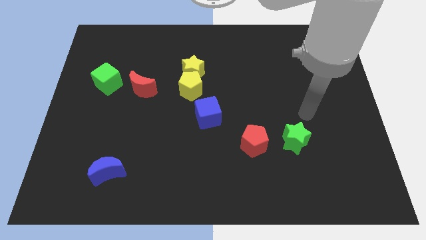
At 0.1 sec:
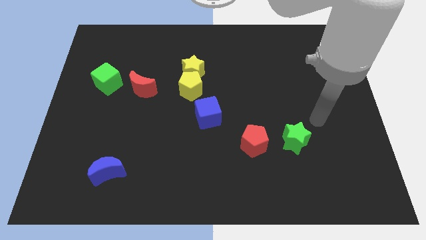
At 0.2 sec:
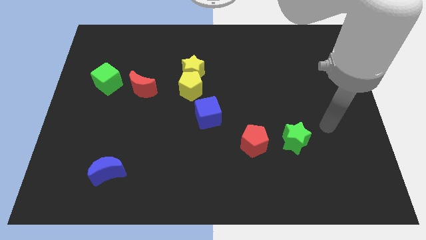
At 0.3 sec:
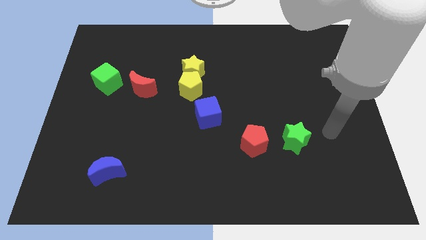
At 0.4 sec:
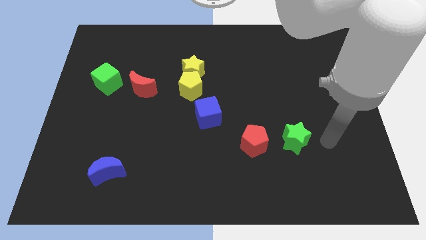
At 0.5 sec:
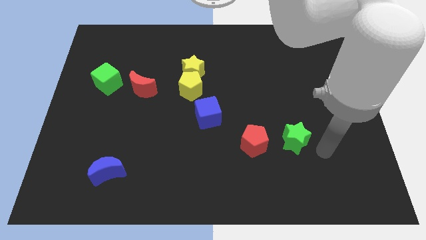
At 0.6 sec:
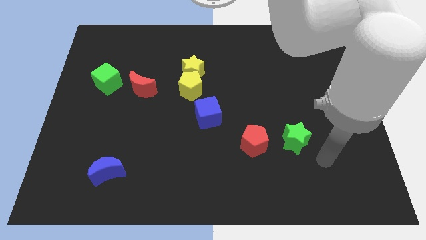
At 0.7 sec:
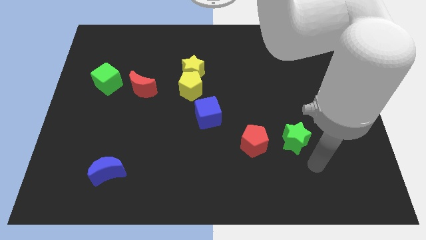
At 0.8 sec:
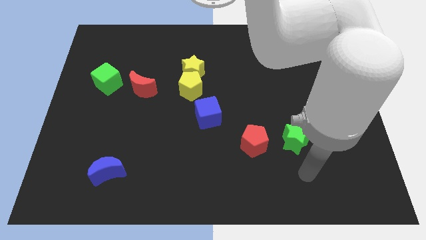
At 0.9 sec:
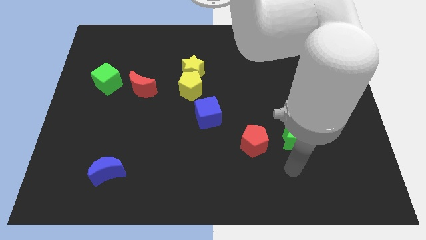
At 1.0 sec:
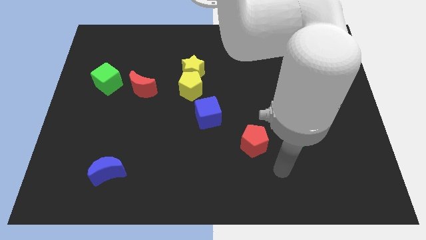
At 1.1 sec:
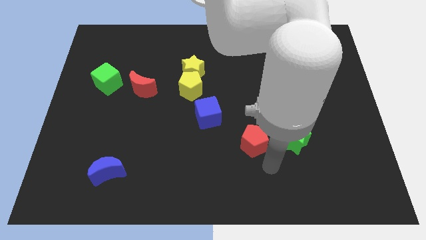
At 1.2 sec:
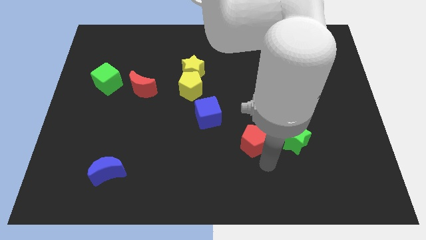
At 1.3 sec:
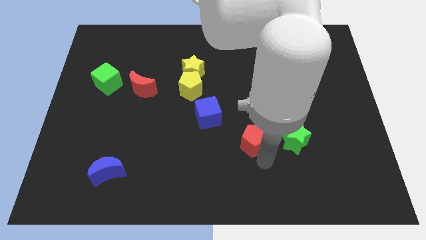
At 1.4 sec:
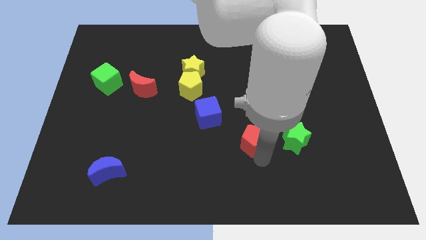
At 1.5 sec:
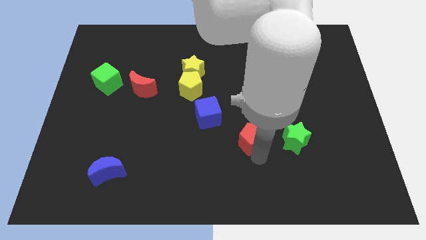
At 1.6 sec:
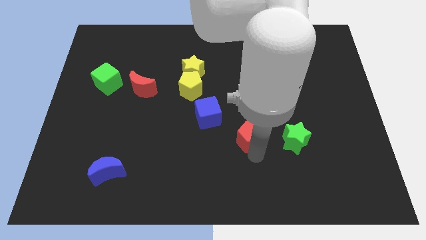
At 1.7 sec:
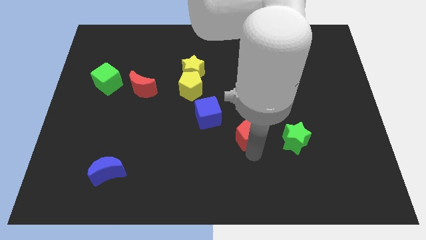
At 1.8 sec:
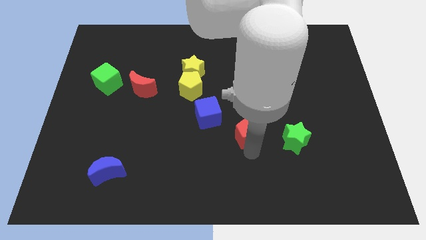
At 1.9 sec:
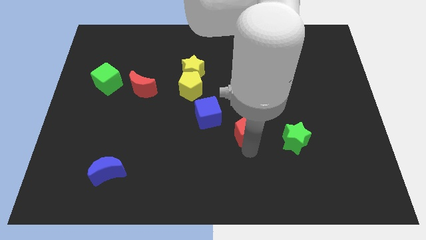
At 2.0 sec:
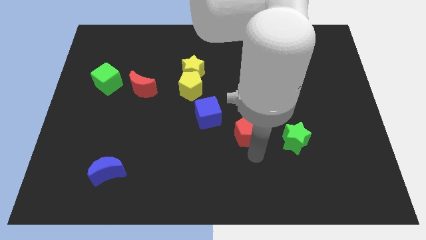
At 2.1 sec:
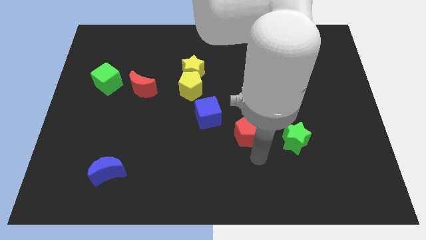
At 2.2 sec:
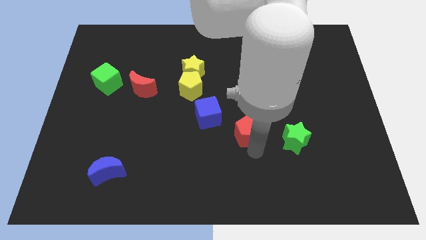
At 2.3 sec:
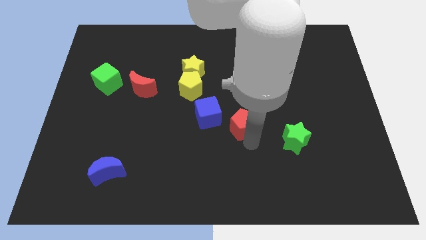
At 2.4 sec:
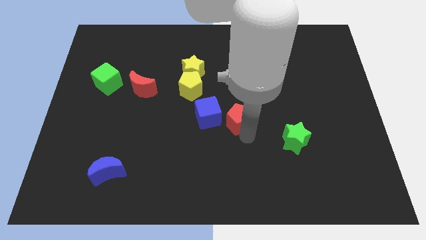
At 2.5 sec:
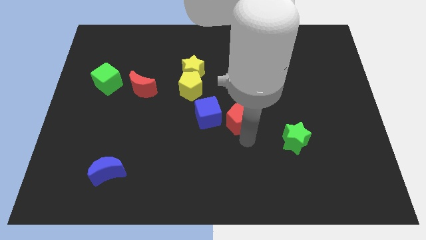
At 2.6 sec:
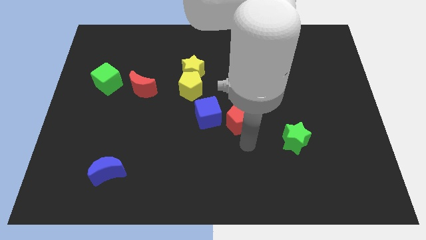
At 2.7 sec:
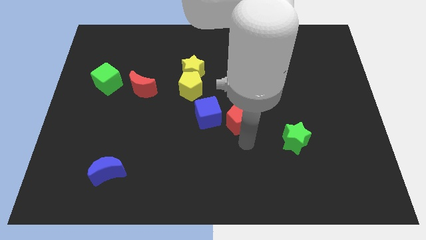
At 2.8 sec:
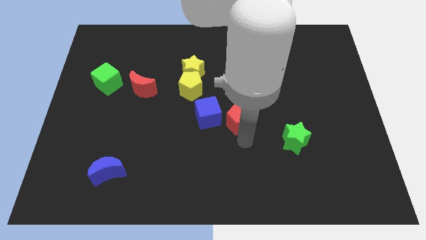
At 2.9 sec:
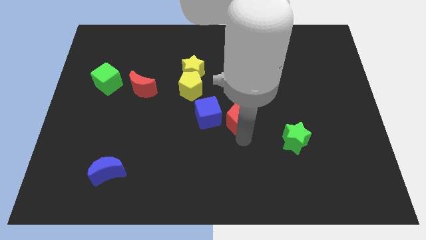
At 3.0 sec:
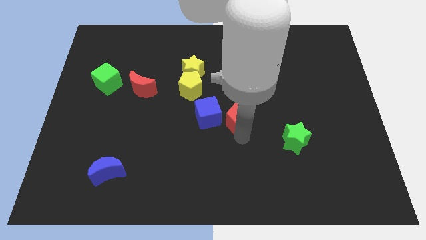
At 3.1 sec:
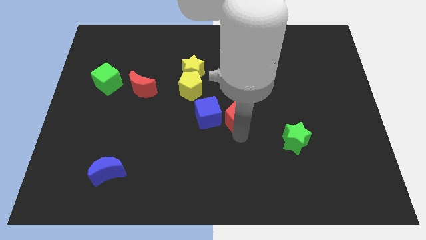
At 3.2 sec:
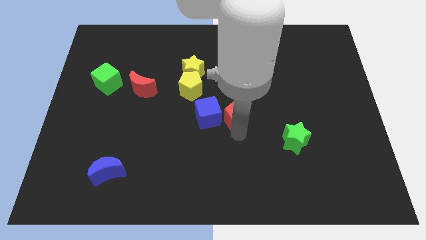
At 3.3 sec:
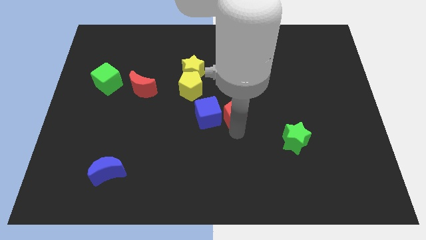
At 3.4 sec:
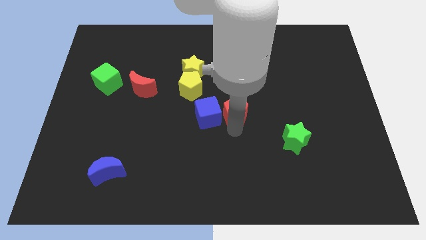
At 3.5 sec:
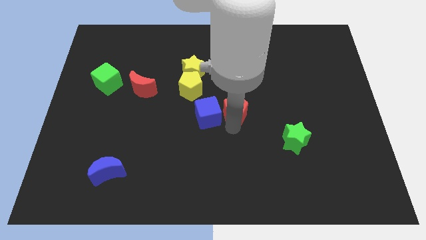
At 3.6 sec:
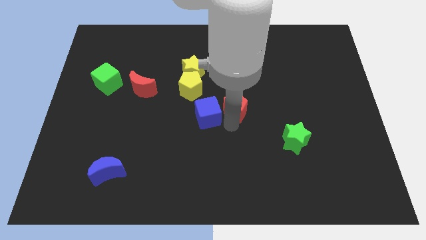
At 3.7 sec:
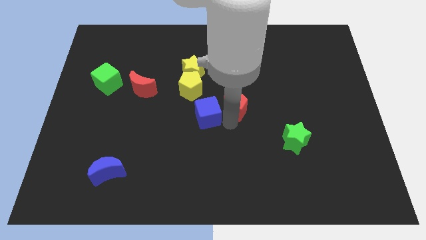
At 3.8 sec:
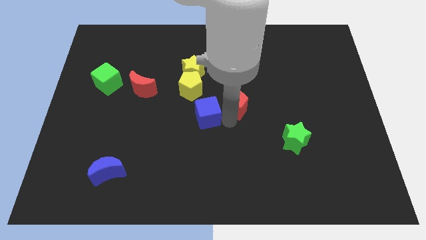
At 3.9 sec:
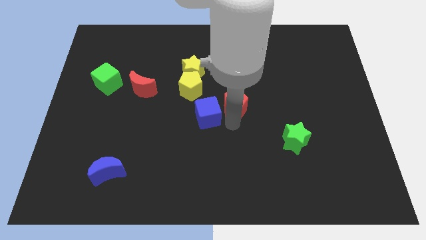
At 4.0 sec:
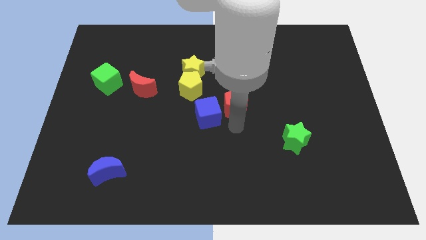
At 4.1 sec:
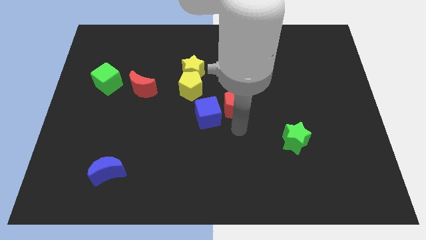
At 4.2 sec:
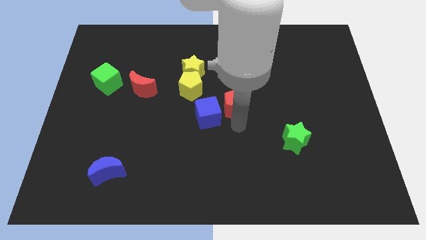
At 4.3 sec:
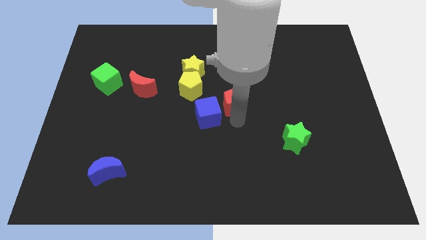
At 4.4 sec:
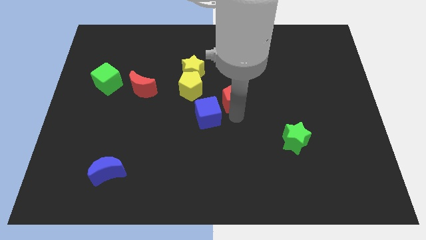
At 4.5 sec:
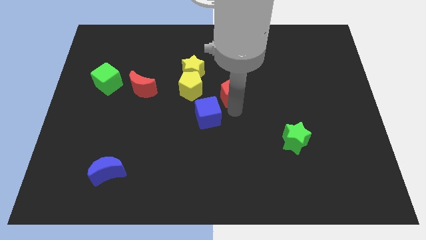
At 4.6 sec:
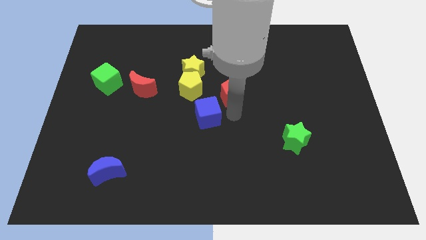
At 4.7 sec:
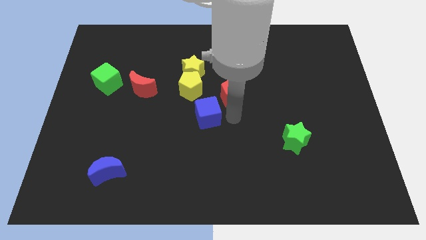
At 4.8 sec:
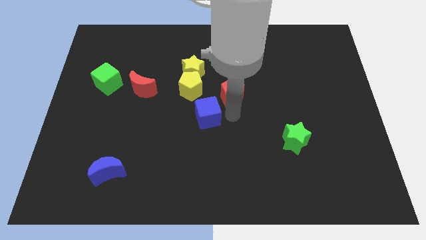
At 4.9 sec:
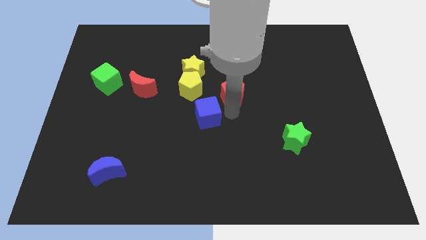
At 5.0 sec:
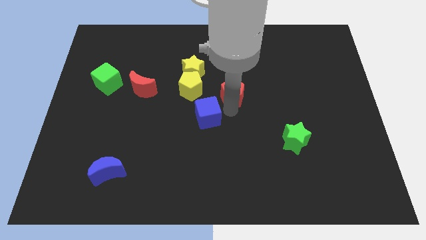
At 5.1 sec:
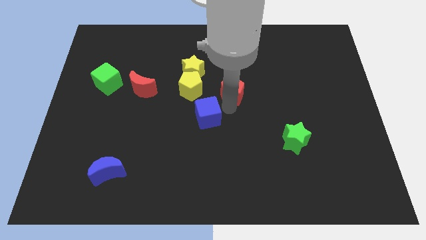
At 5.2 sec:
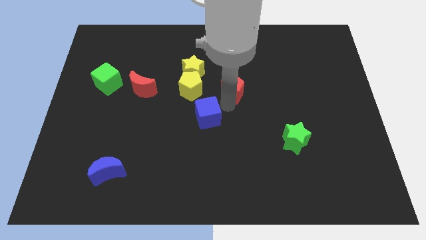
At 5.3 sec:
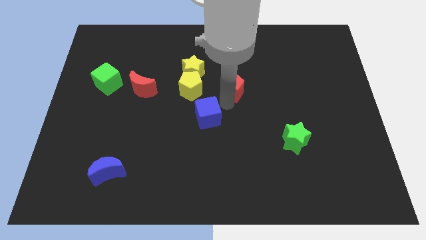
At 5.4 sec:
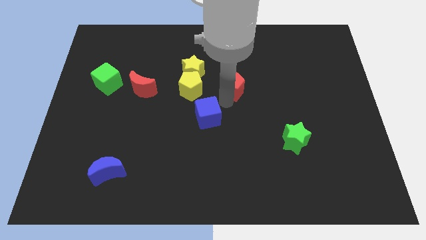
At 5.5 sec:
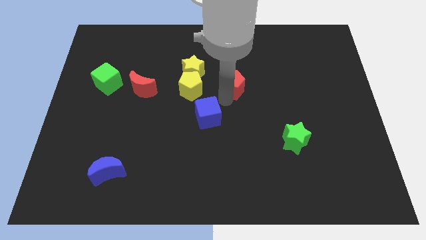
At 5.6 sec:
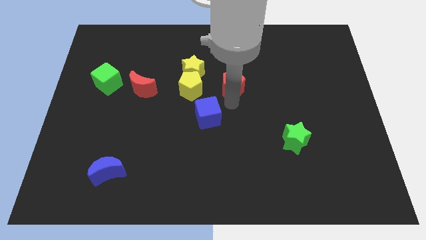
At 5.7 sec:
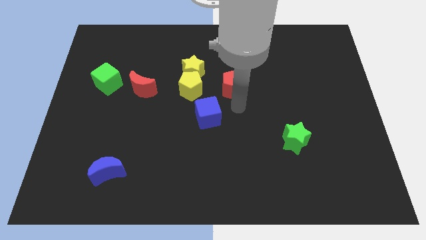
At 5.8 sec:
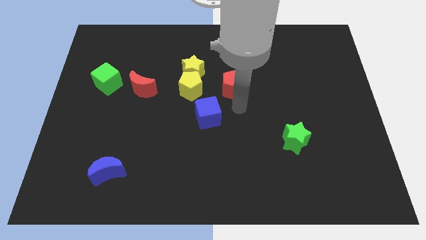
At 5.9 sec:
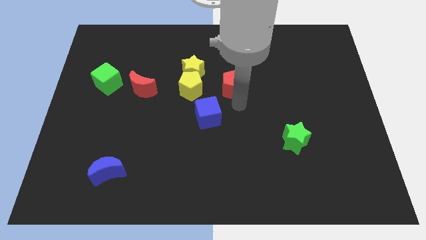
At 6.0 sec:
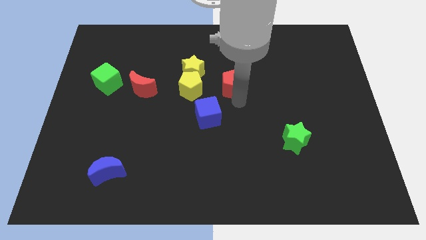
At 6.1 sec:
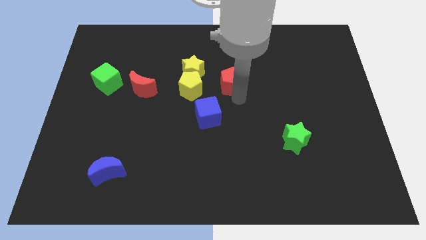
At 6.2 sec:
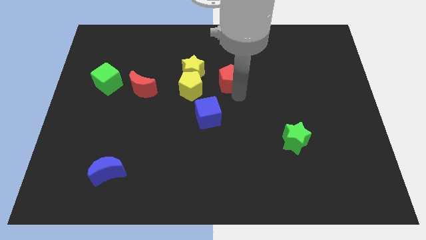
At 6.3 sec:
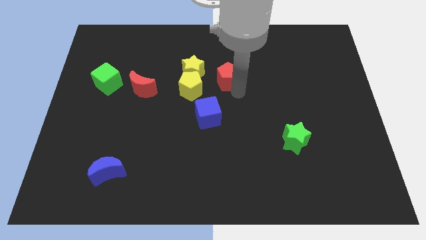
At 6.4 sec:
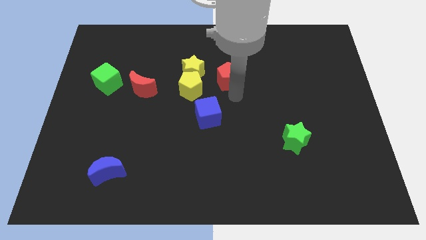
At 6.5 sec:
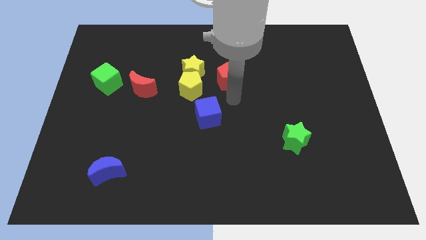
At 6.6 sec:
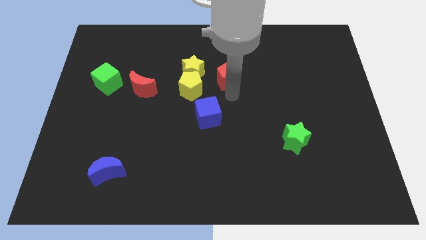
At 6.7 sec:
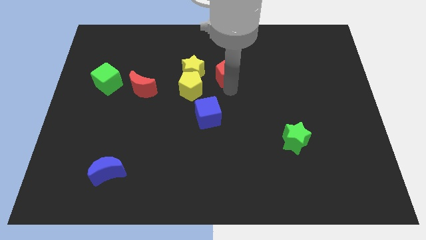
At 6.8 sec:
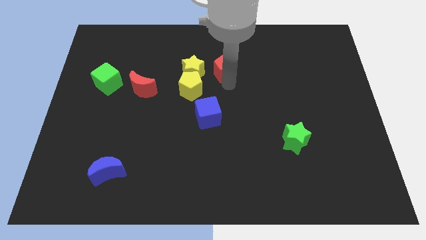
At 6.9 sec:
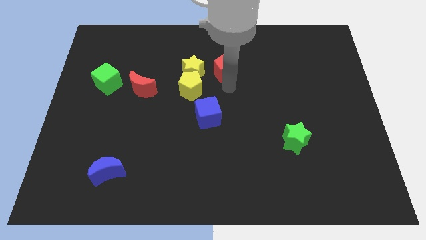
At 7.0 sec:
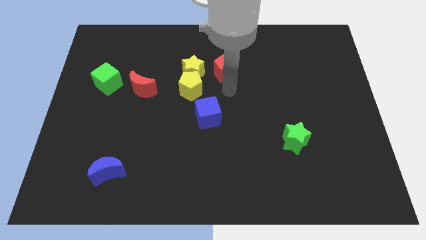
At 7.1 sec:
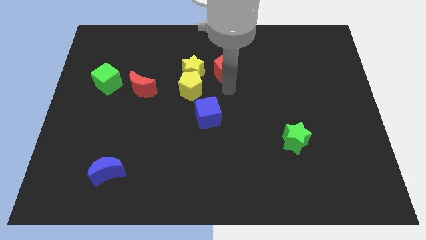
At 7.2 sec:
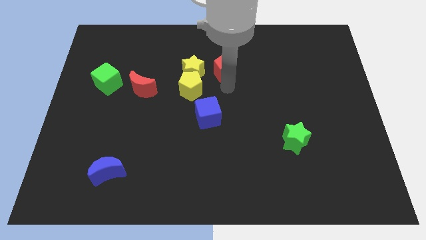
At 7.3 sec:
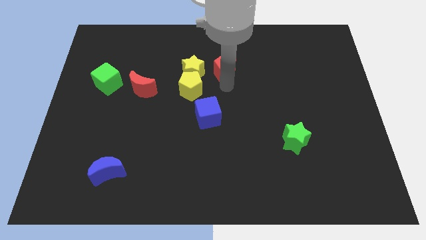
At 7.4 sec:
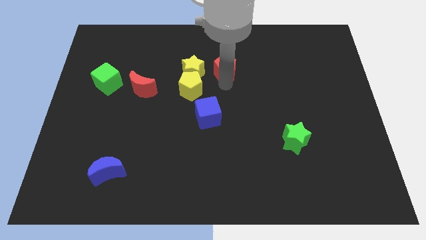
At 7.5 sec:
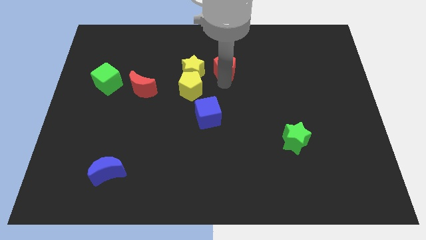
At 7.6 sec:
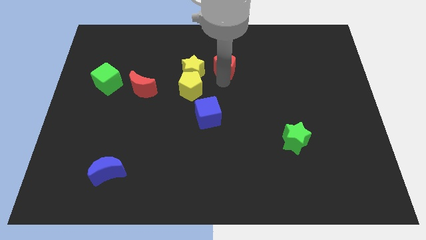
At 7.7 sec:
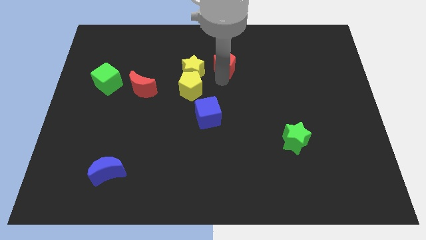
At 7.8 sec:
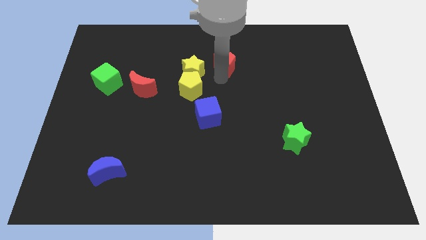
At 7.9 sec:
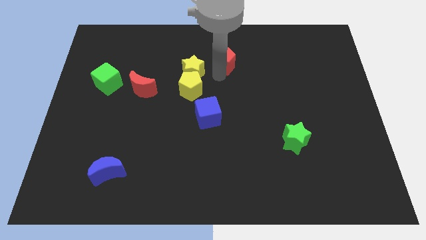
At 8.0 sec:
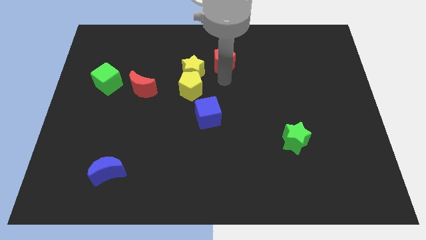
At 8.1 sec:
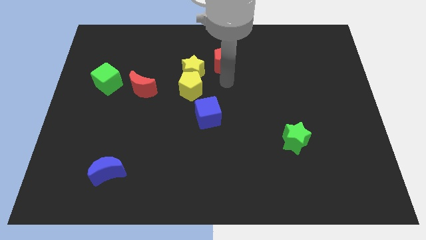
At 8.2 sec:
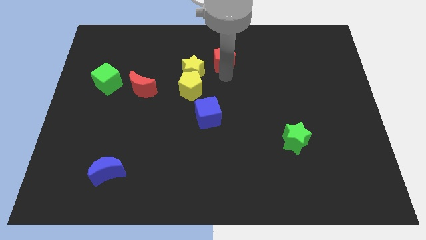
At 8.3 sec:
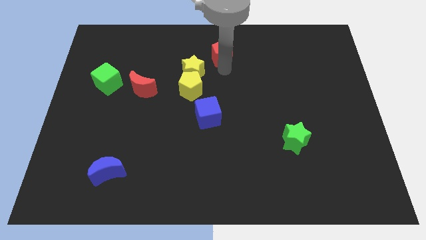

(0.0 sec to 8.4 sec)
put the red pentagon to the top side
